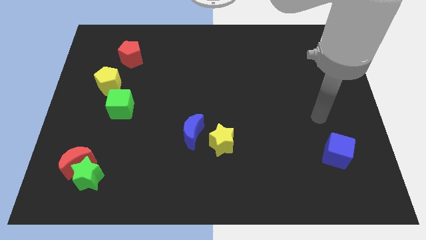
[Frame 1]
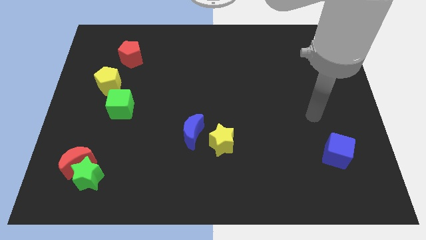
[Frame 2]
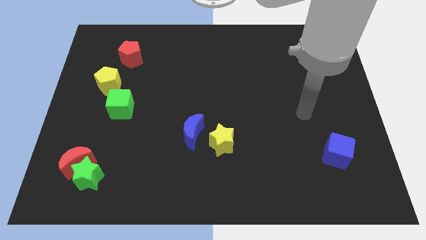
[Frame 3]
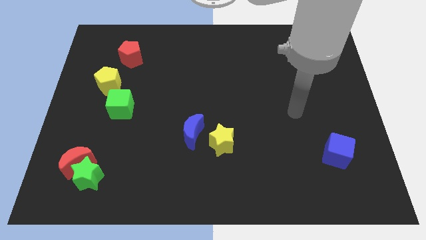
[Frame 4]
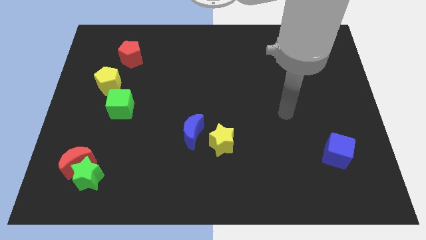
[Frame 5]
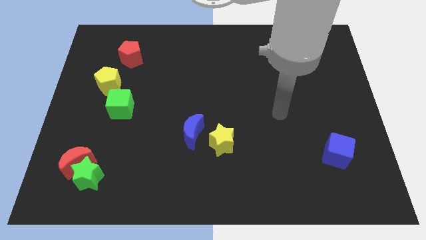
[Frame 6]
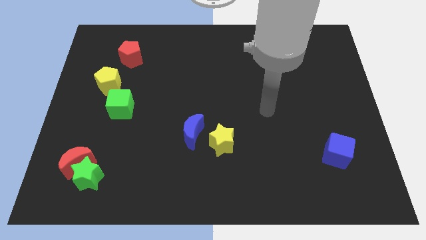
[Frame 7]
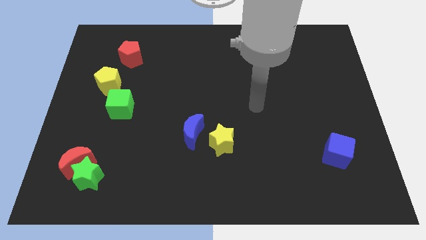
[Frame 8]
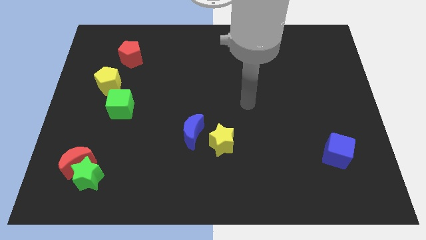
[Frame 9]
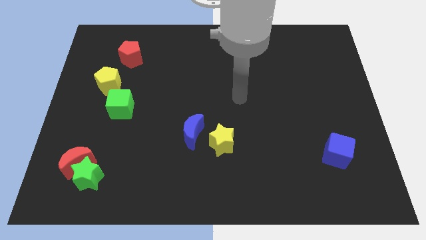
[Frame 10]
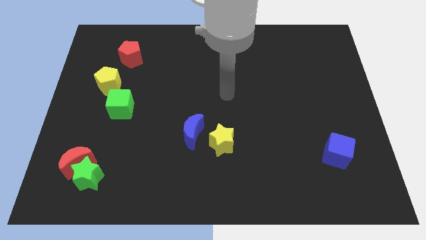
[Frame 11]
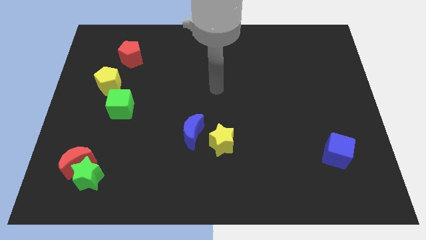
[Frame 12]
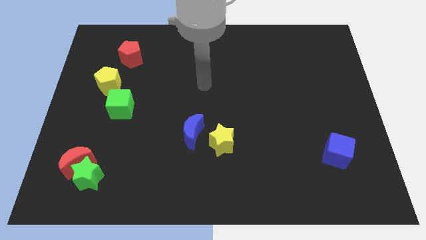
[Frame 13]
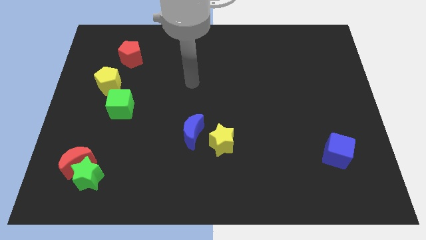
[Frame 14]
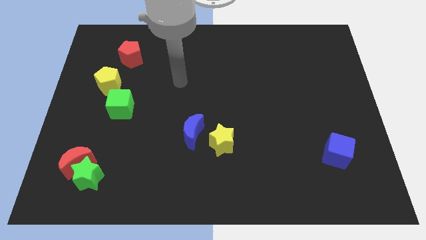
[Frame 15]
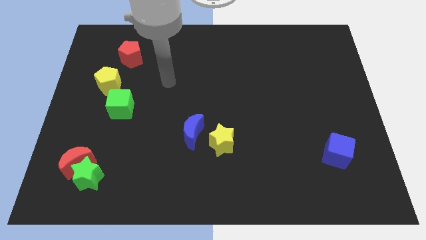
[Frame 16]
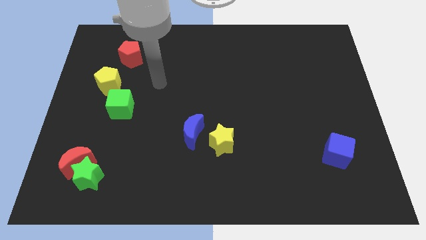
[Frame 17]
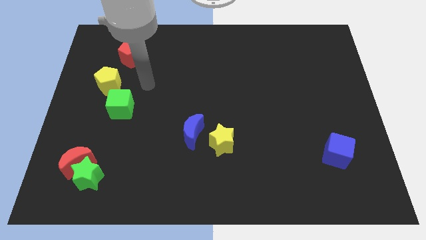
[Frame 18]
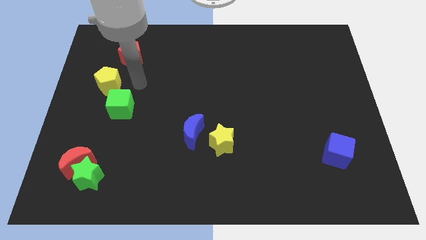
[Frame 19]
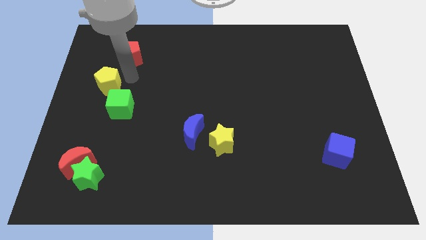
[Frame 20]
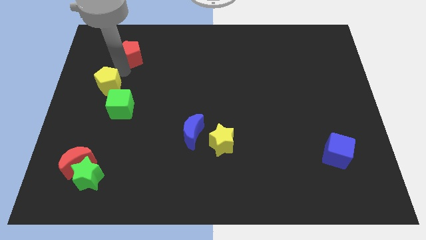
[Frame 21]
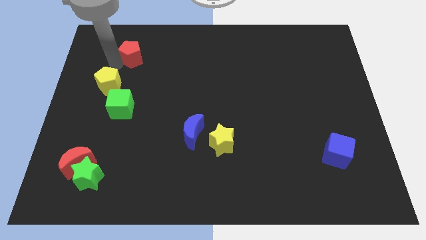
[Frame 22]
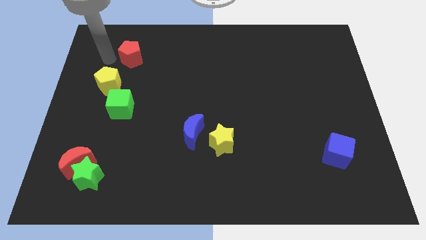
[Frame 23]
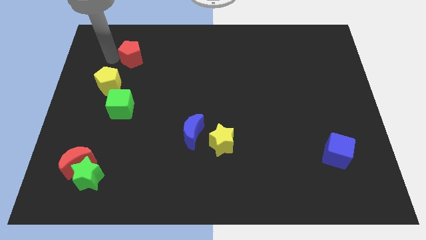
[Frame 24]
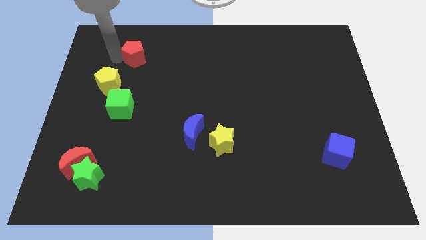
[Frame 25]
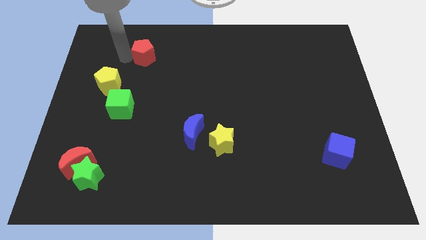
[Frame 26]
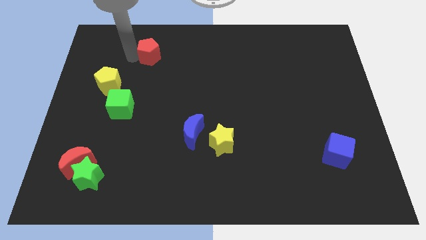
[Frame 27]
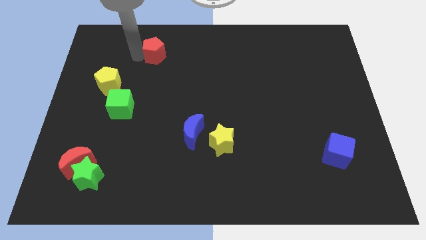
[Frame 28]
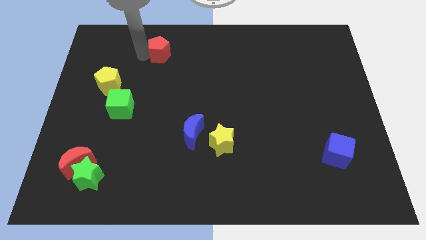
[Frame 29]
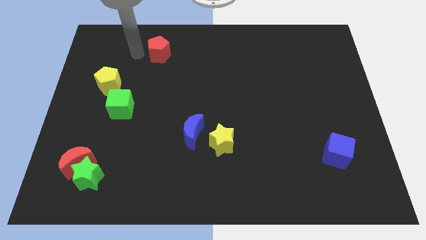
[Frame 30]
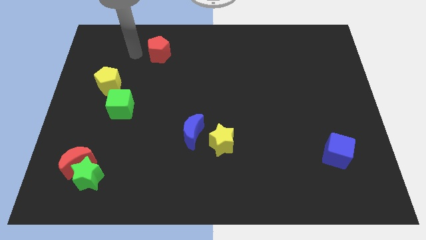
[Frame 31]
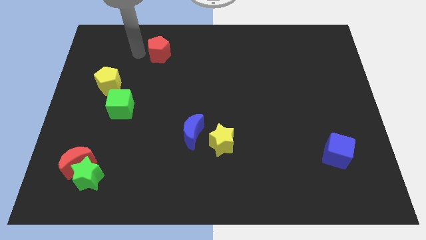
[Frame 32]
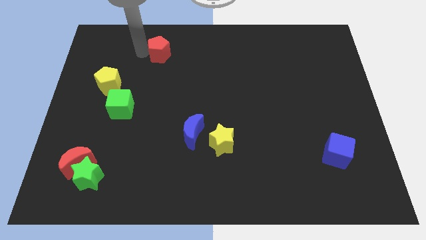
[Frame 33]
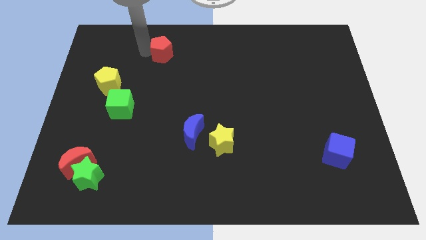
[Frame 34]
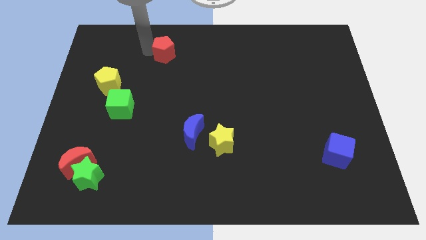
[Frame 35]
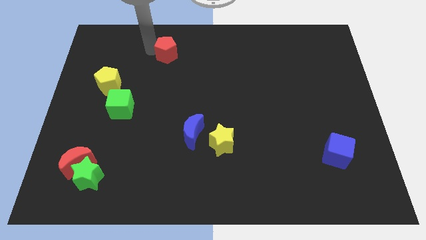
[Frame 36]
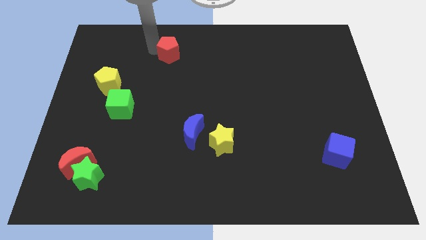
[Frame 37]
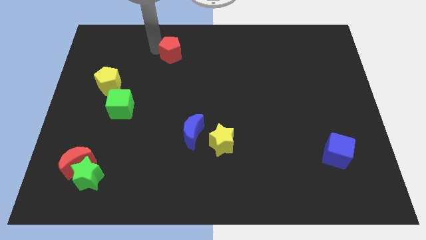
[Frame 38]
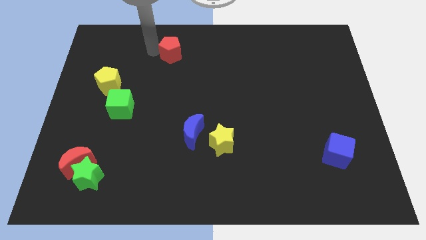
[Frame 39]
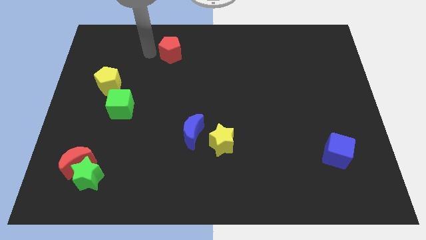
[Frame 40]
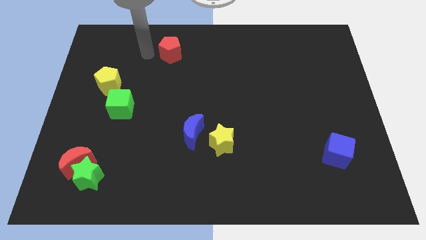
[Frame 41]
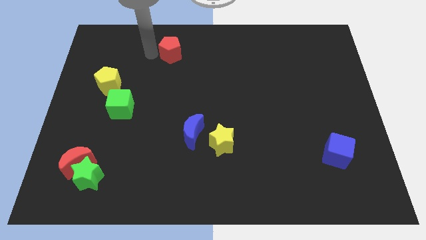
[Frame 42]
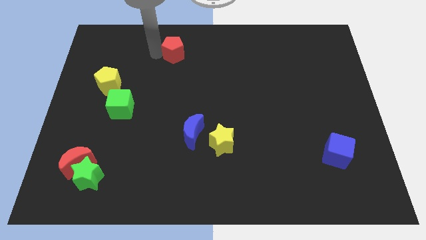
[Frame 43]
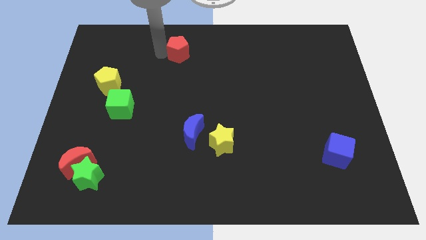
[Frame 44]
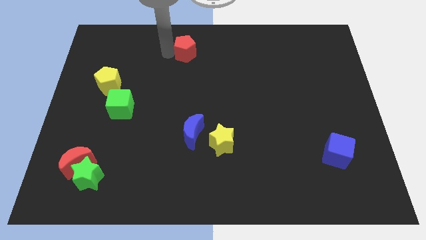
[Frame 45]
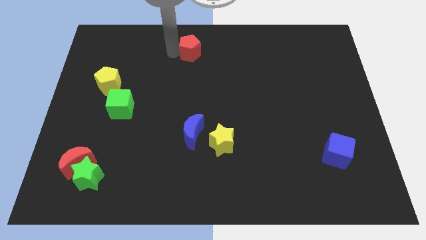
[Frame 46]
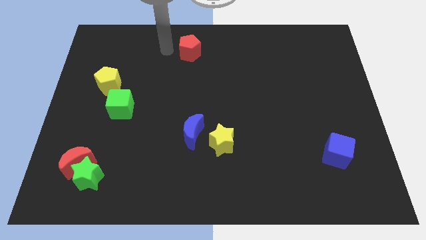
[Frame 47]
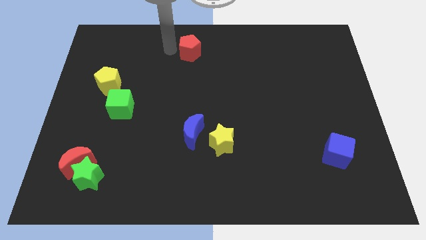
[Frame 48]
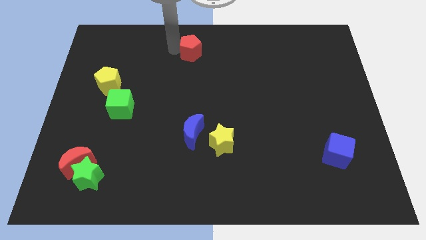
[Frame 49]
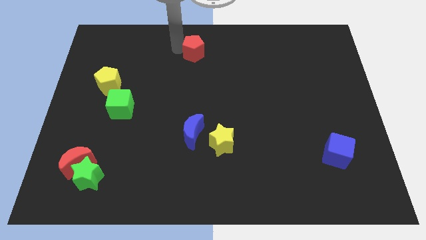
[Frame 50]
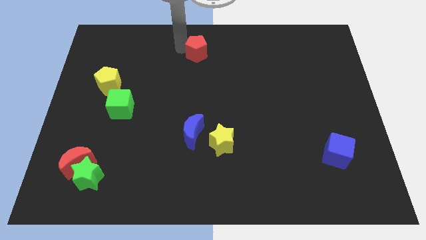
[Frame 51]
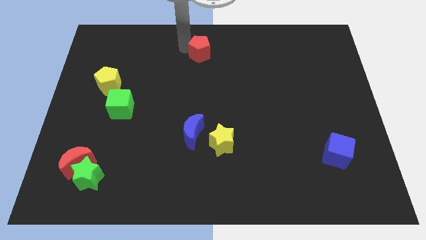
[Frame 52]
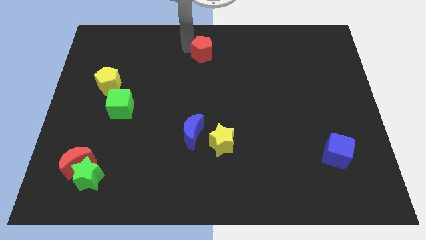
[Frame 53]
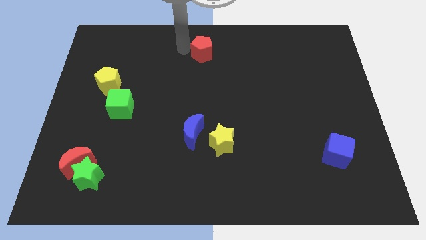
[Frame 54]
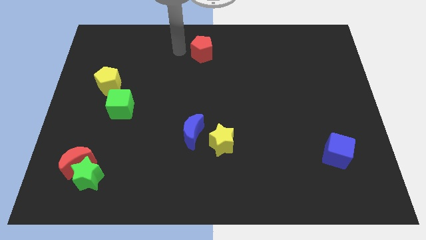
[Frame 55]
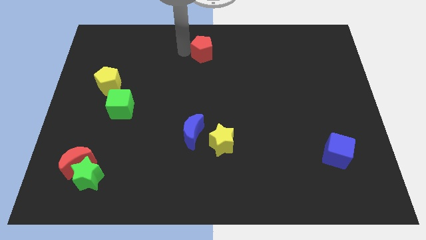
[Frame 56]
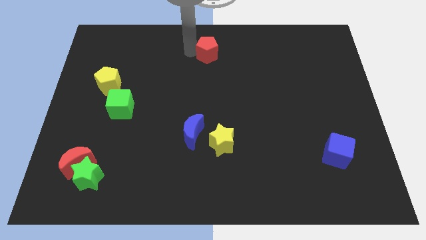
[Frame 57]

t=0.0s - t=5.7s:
push the red pentagon to the right

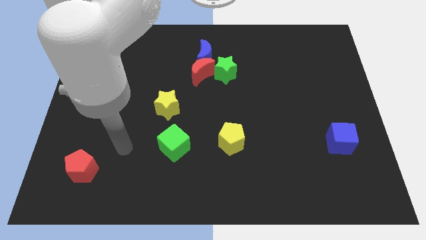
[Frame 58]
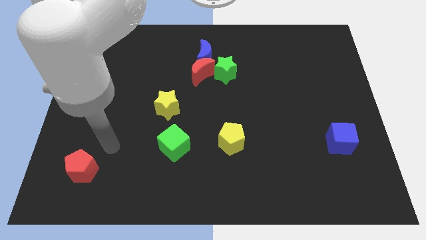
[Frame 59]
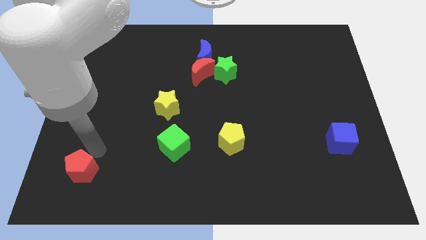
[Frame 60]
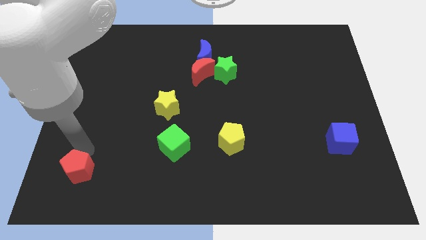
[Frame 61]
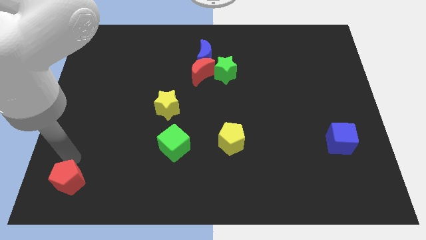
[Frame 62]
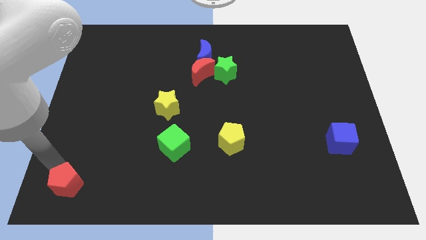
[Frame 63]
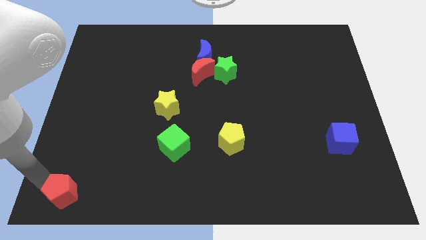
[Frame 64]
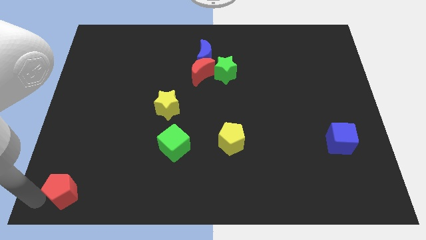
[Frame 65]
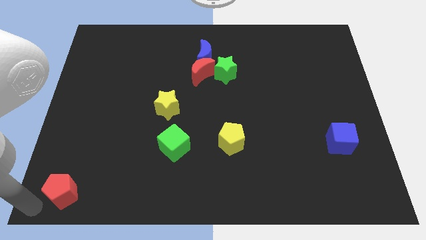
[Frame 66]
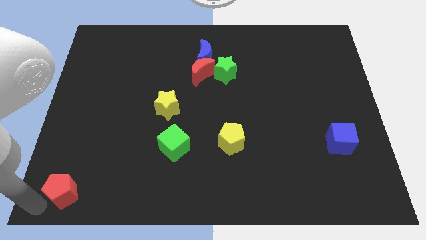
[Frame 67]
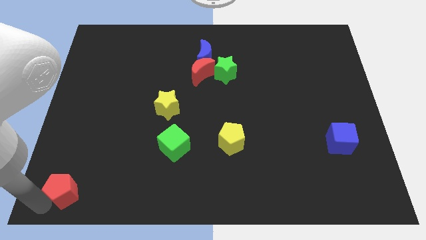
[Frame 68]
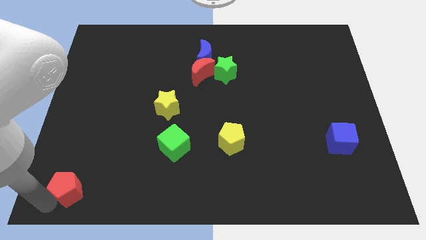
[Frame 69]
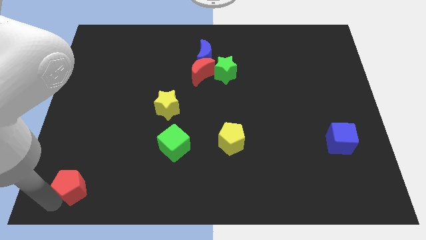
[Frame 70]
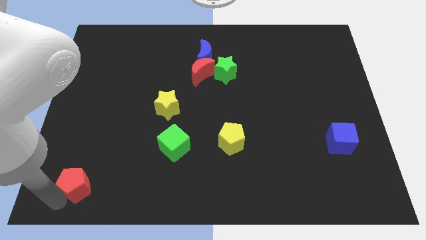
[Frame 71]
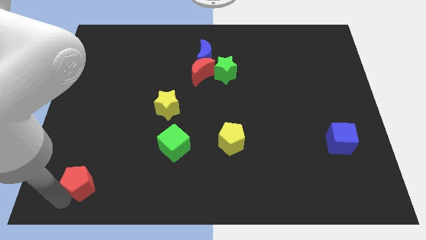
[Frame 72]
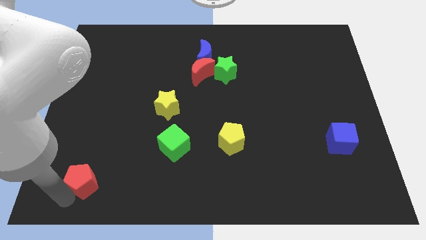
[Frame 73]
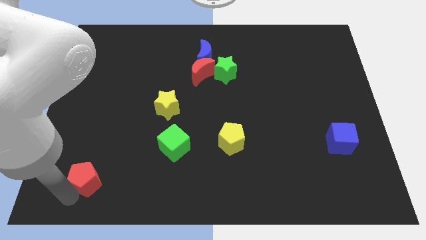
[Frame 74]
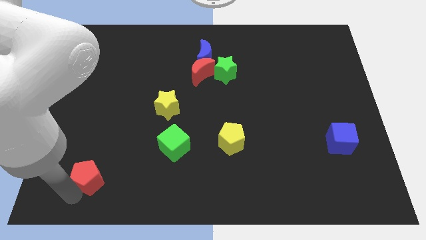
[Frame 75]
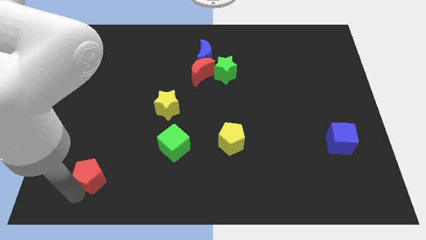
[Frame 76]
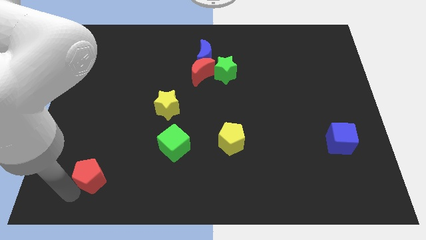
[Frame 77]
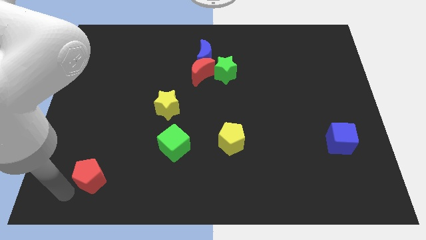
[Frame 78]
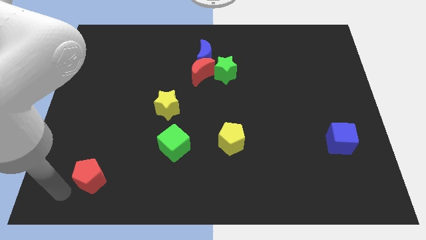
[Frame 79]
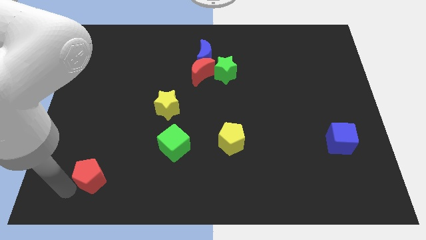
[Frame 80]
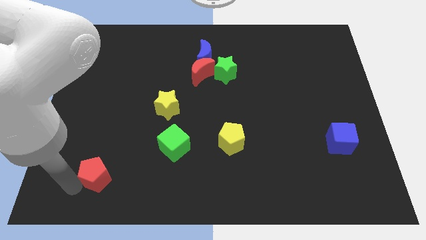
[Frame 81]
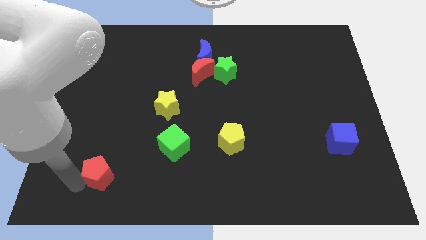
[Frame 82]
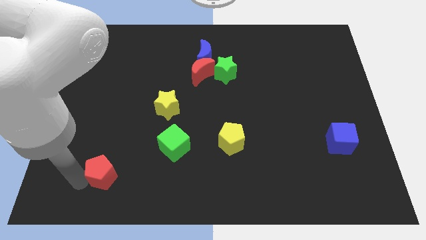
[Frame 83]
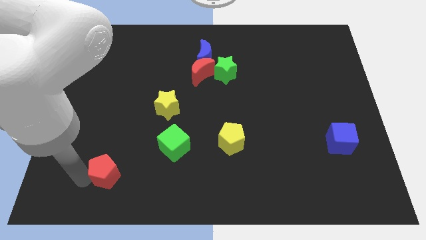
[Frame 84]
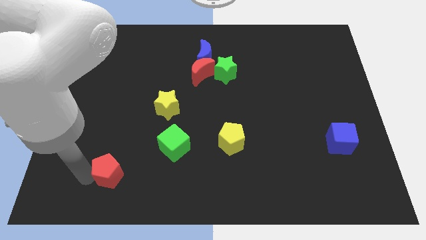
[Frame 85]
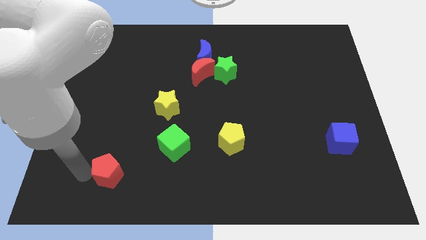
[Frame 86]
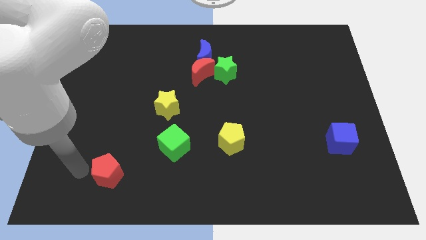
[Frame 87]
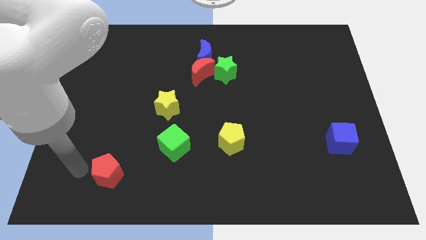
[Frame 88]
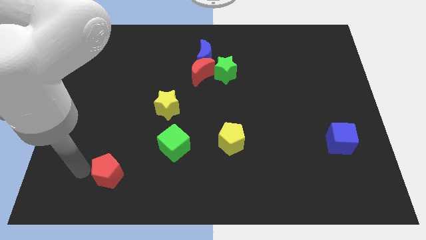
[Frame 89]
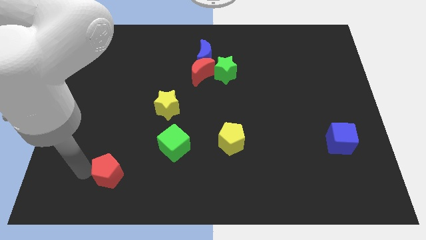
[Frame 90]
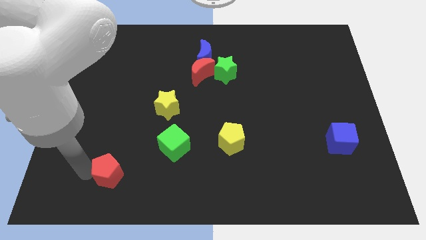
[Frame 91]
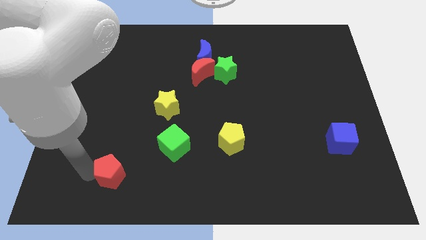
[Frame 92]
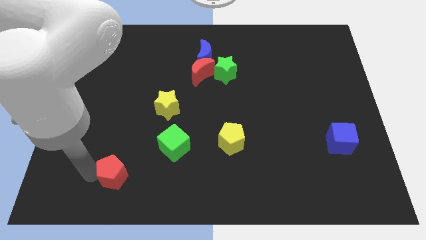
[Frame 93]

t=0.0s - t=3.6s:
slightly move the red pentagon to the right
